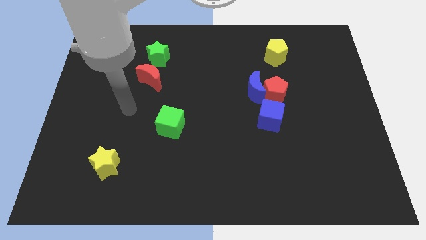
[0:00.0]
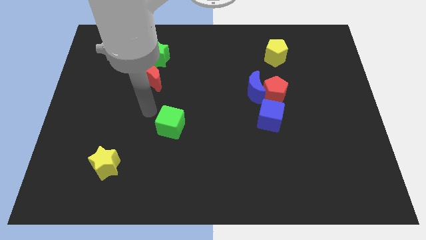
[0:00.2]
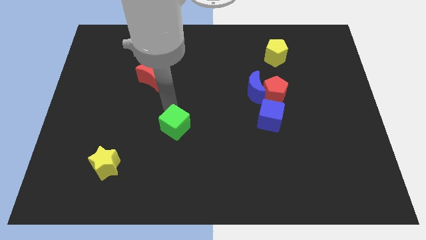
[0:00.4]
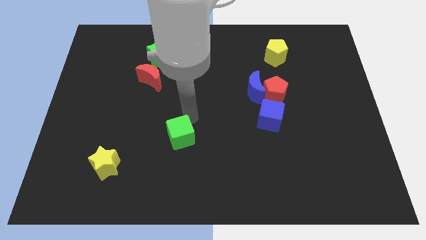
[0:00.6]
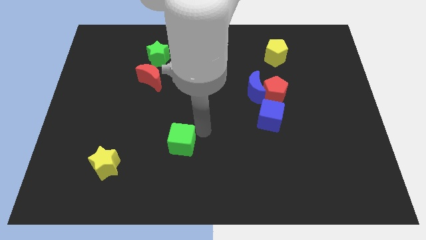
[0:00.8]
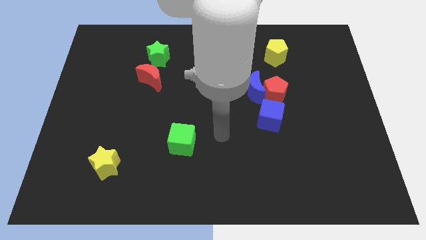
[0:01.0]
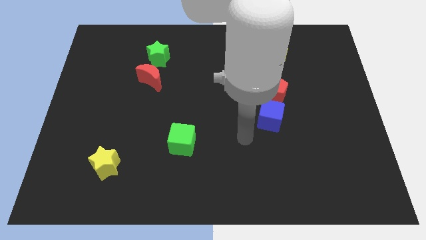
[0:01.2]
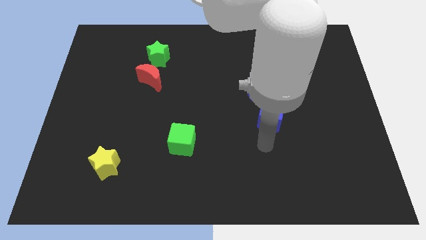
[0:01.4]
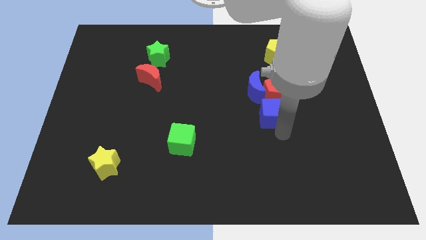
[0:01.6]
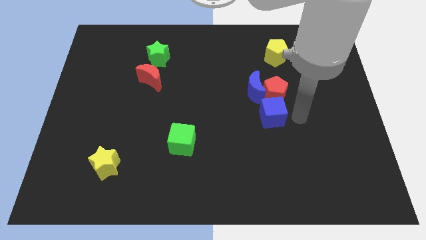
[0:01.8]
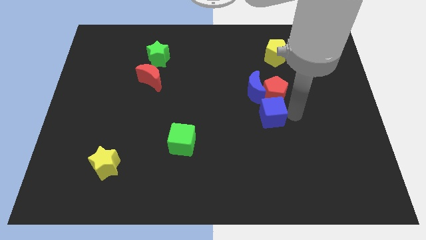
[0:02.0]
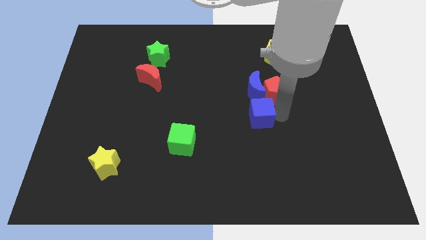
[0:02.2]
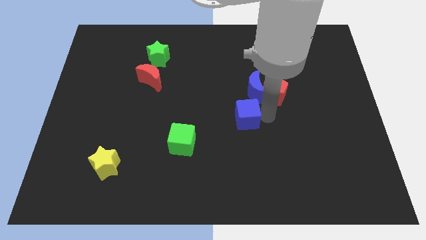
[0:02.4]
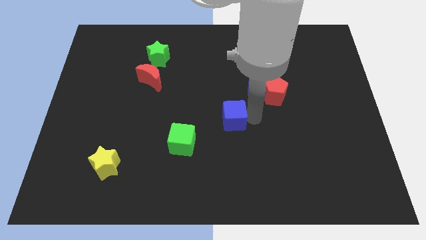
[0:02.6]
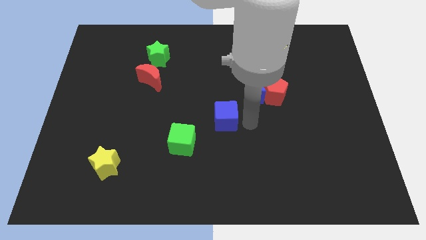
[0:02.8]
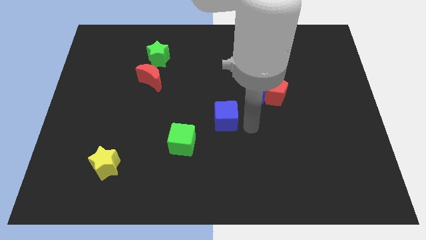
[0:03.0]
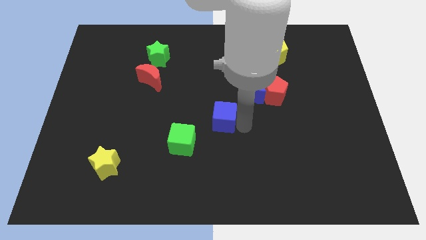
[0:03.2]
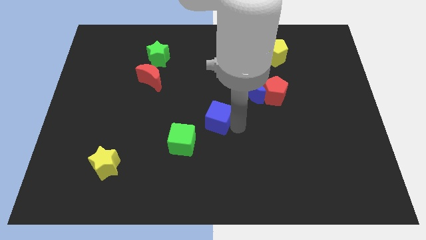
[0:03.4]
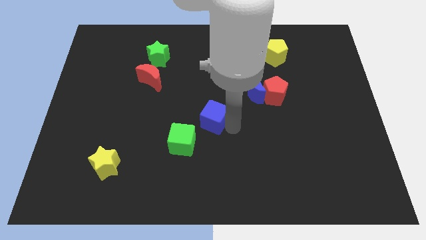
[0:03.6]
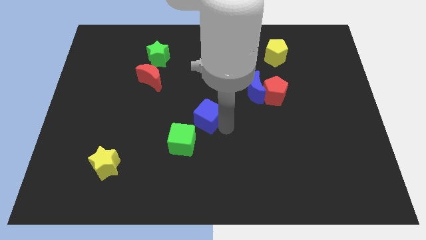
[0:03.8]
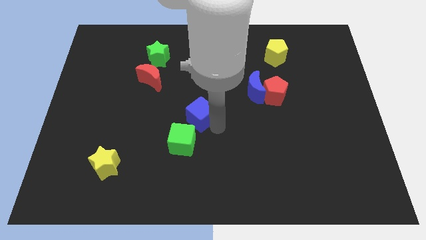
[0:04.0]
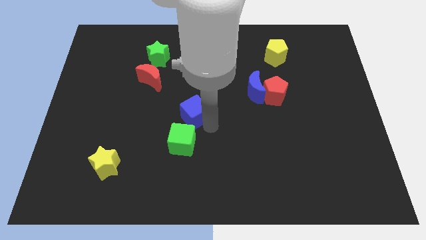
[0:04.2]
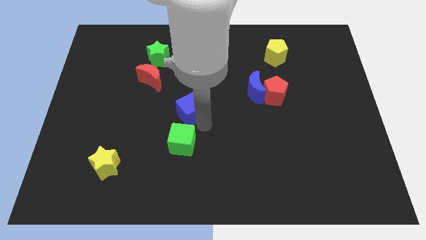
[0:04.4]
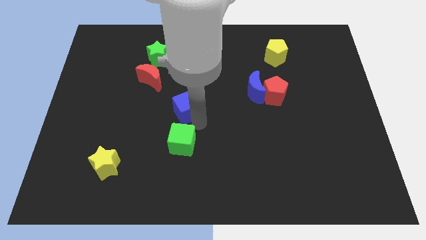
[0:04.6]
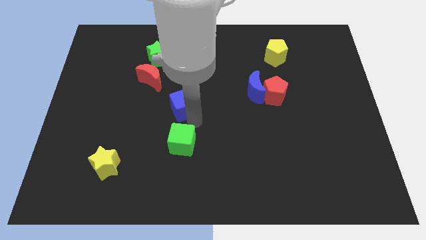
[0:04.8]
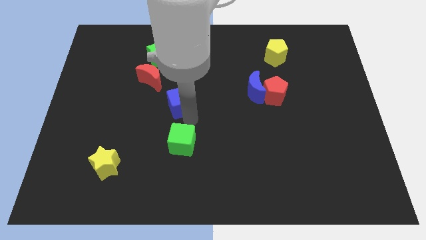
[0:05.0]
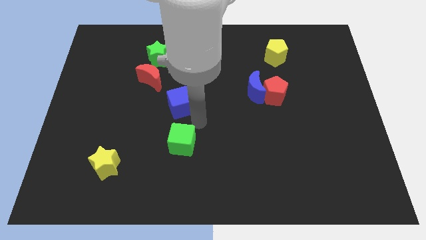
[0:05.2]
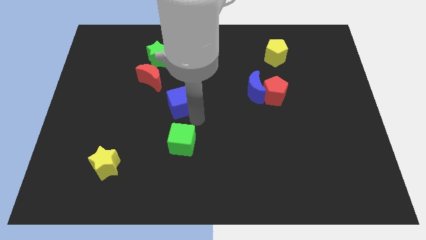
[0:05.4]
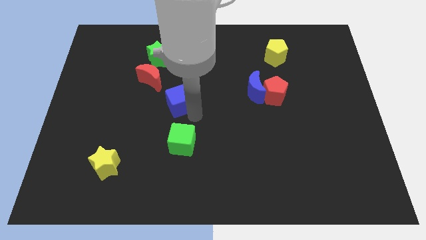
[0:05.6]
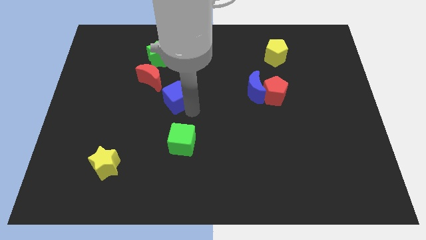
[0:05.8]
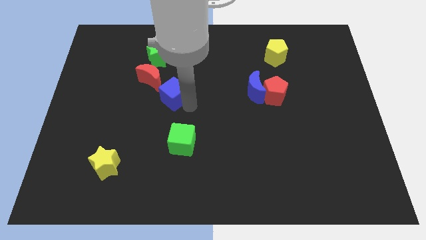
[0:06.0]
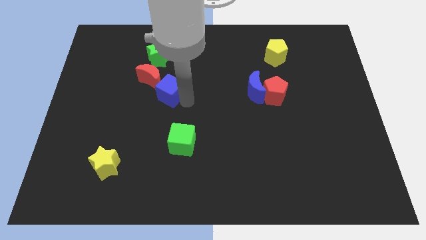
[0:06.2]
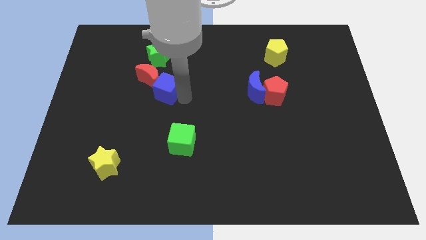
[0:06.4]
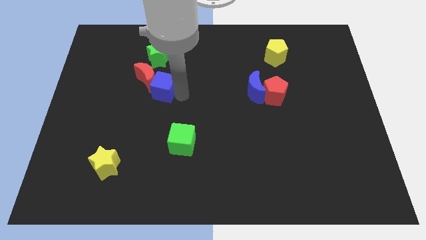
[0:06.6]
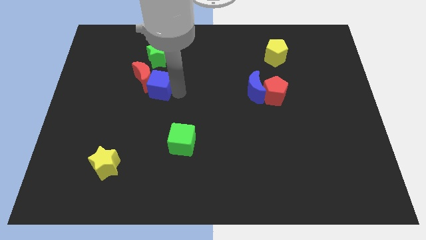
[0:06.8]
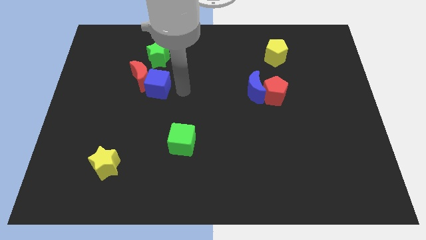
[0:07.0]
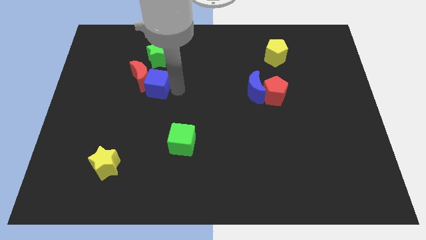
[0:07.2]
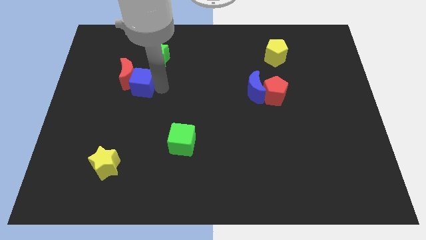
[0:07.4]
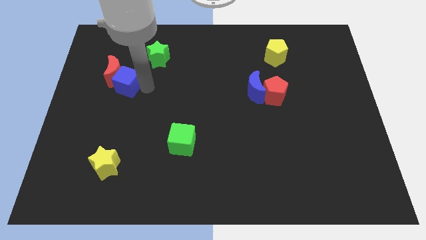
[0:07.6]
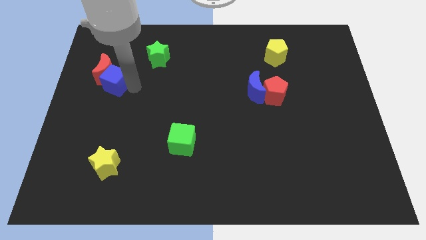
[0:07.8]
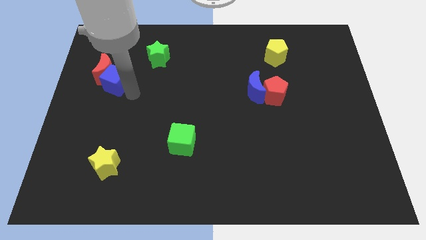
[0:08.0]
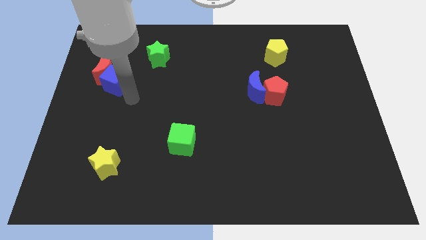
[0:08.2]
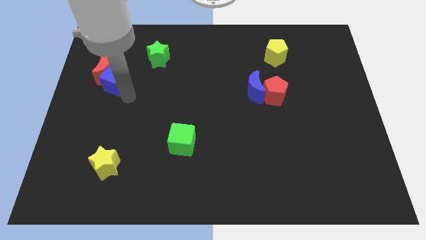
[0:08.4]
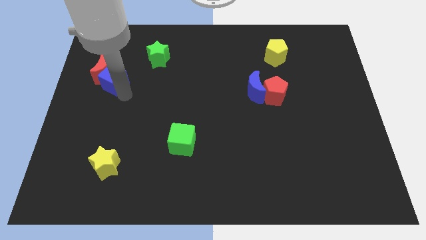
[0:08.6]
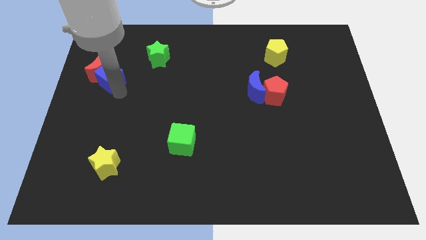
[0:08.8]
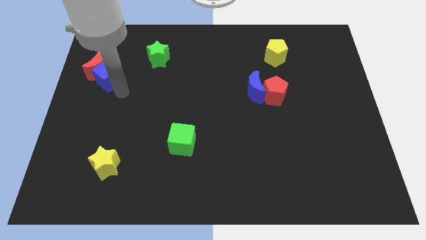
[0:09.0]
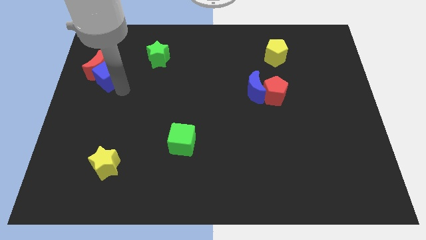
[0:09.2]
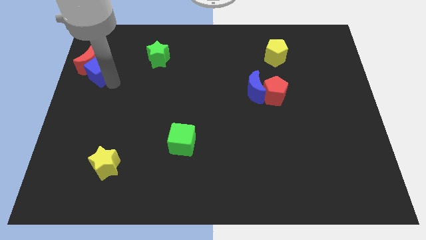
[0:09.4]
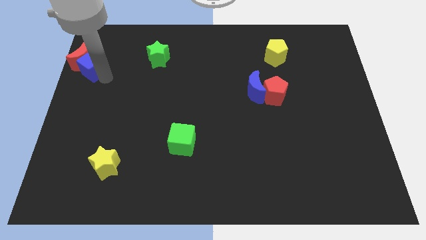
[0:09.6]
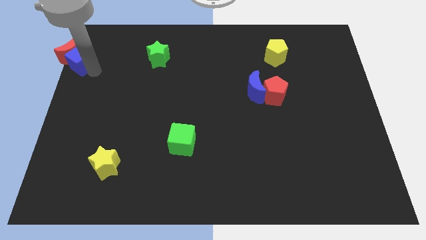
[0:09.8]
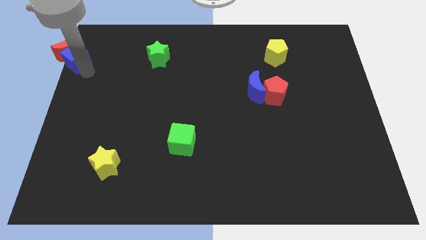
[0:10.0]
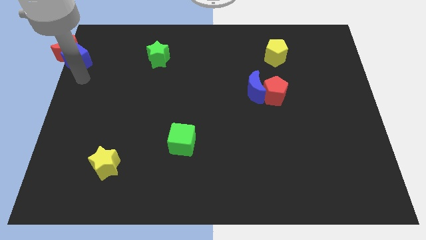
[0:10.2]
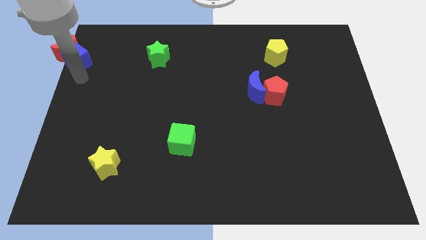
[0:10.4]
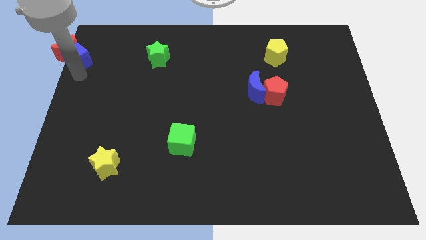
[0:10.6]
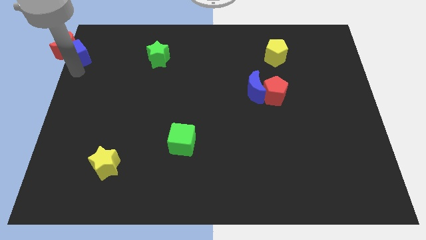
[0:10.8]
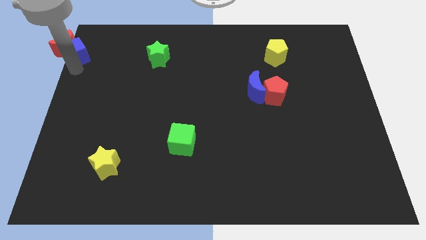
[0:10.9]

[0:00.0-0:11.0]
slide the blue cube to the top left

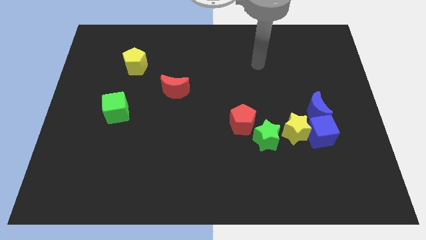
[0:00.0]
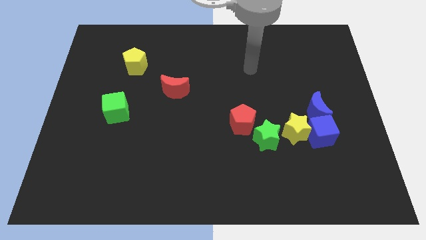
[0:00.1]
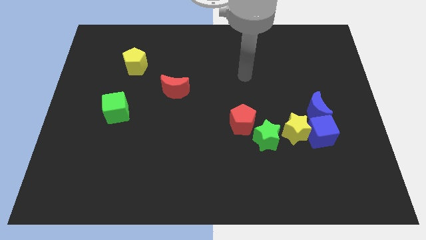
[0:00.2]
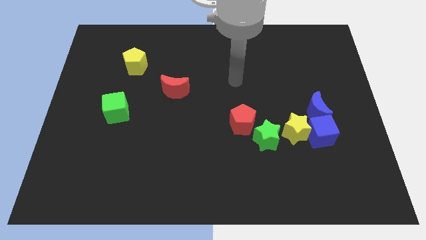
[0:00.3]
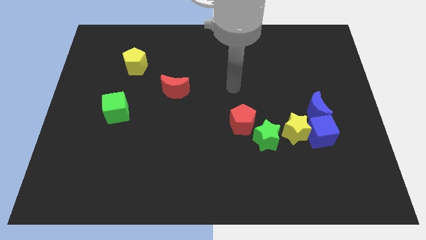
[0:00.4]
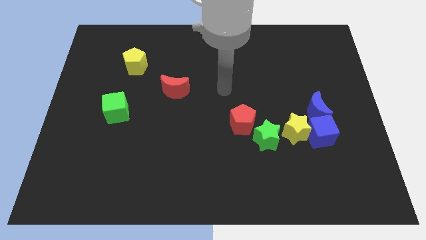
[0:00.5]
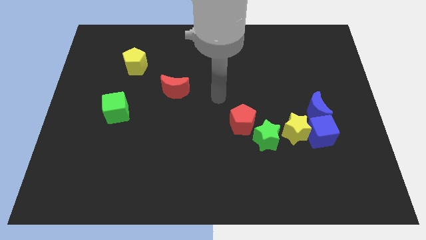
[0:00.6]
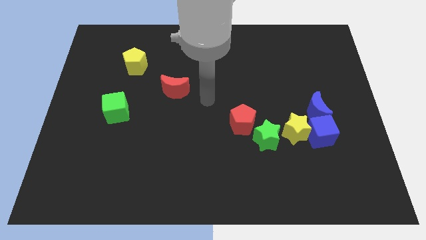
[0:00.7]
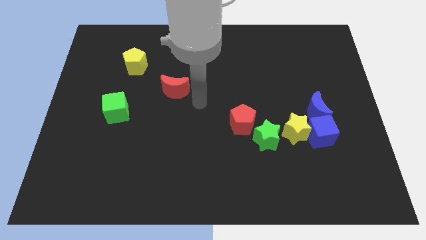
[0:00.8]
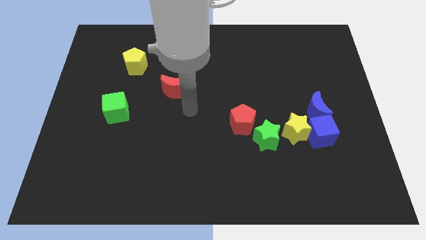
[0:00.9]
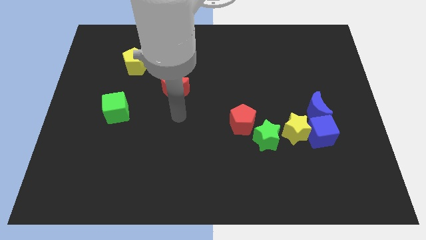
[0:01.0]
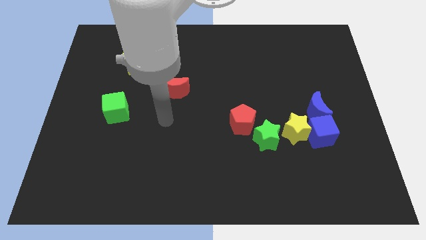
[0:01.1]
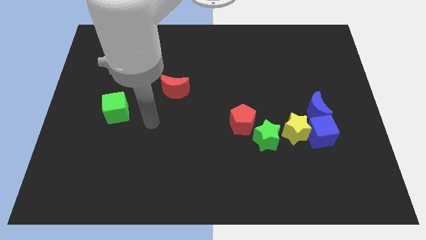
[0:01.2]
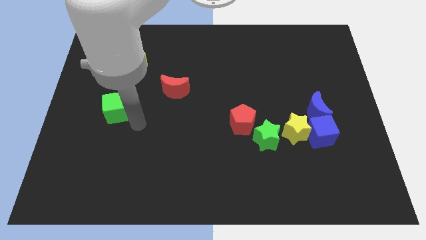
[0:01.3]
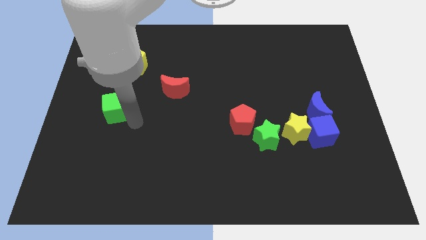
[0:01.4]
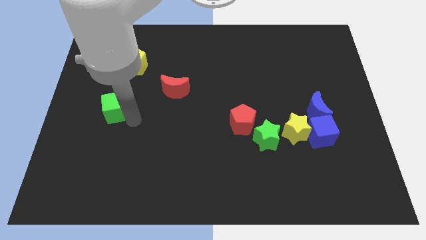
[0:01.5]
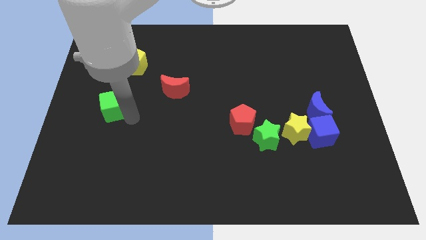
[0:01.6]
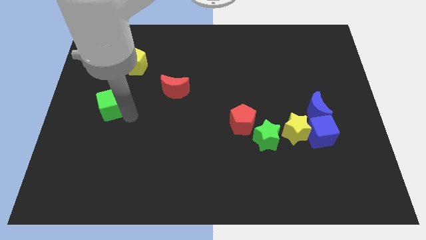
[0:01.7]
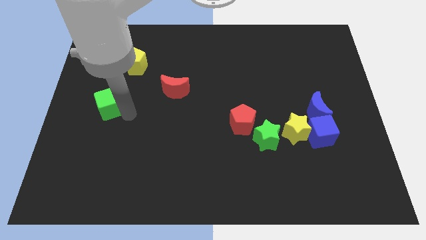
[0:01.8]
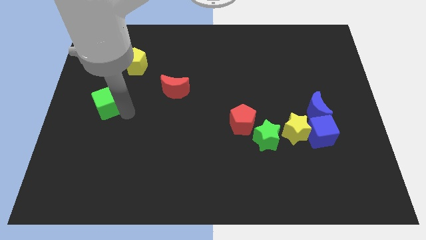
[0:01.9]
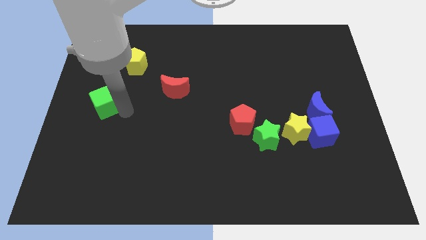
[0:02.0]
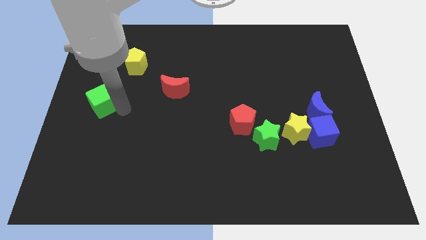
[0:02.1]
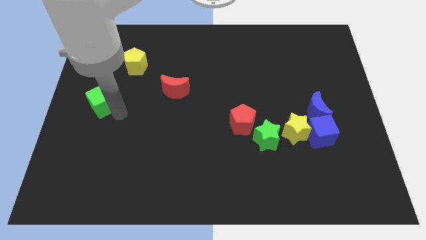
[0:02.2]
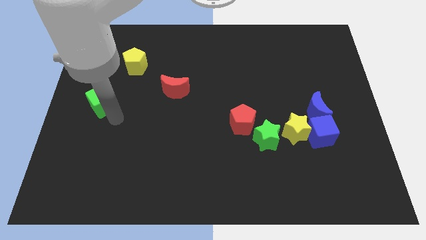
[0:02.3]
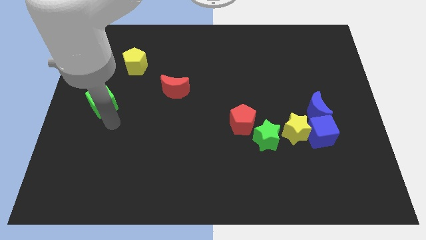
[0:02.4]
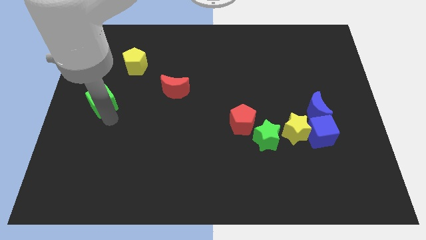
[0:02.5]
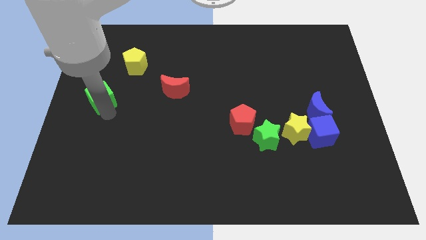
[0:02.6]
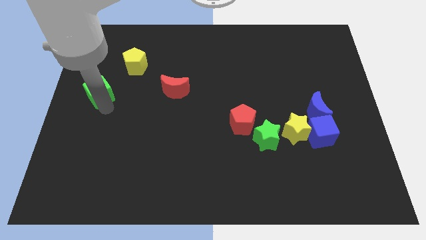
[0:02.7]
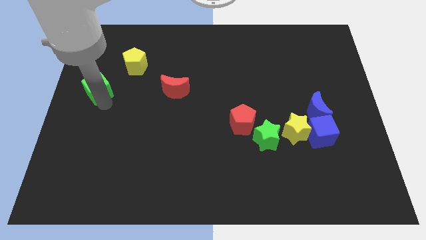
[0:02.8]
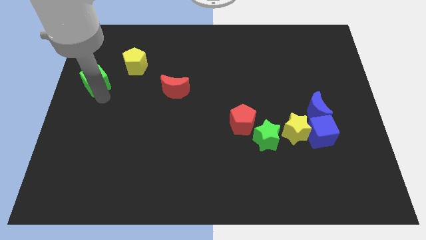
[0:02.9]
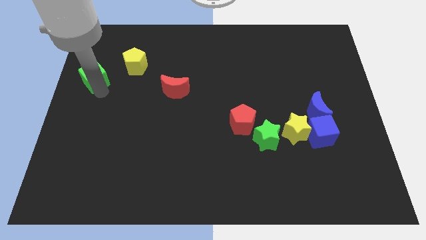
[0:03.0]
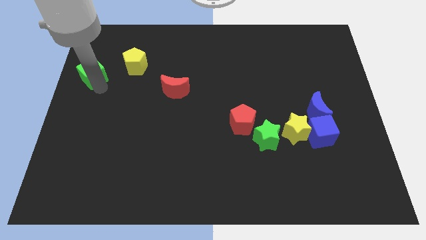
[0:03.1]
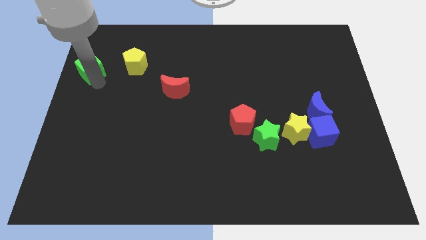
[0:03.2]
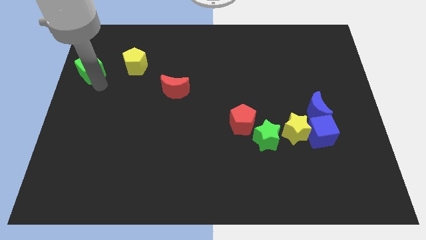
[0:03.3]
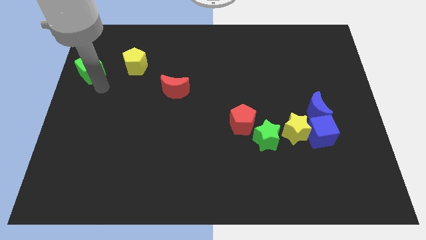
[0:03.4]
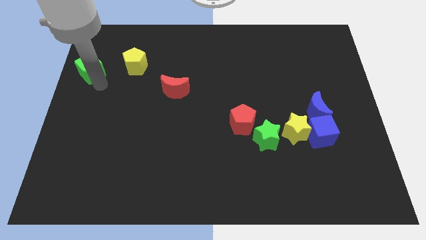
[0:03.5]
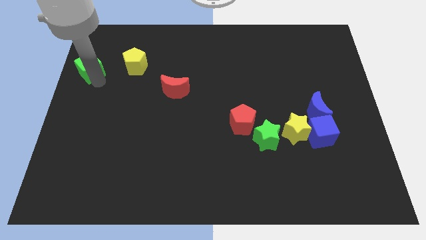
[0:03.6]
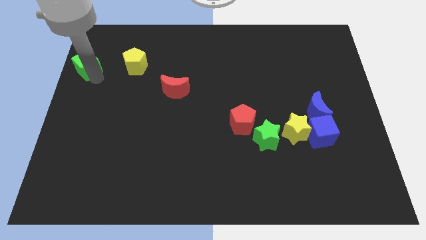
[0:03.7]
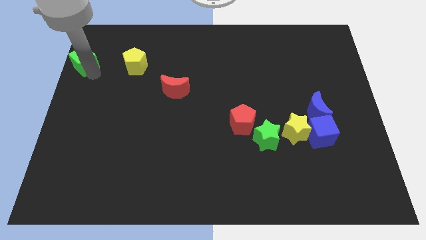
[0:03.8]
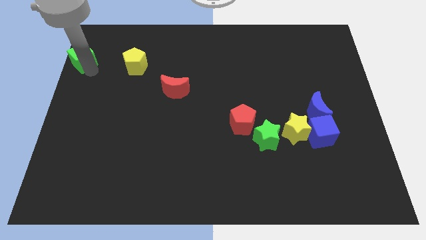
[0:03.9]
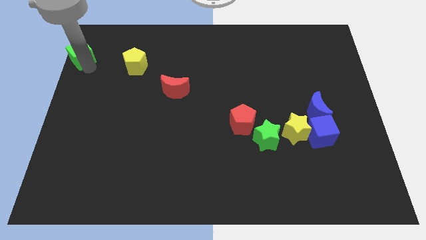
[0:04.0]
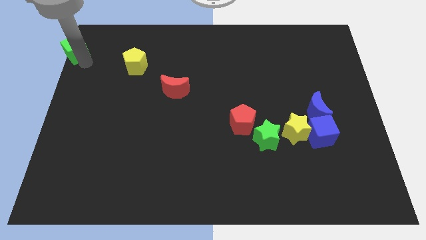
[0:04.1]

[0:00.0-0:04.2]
push the green cube to the top left corner
